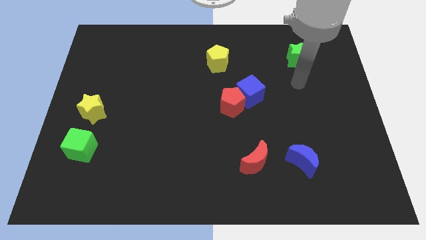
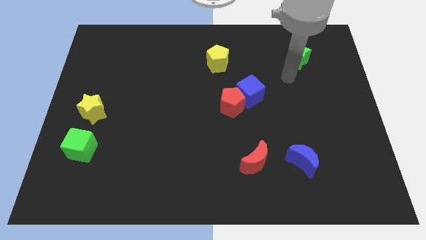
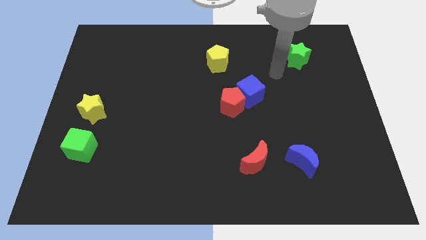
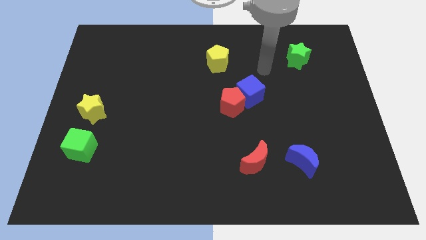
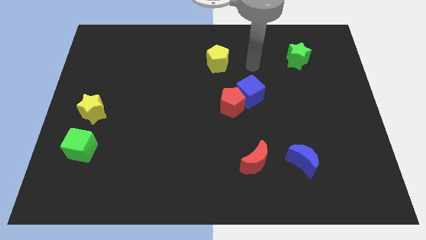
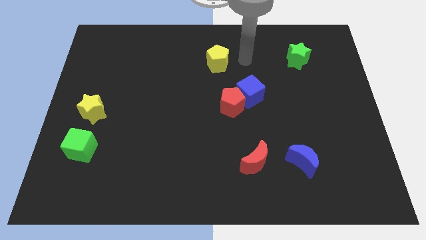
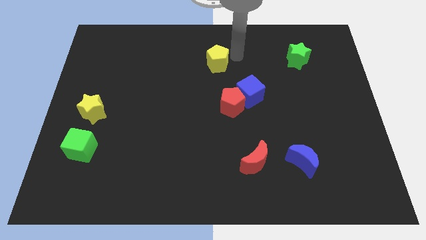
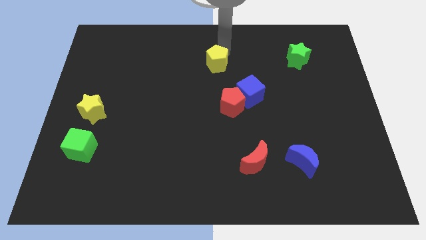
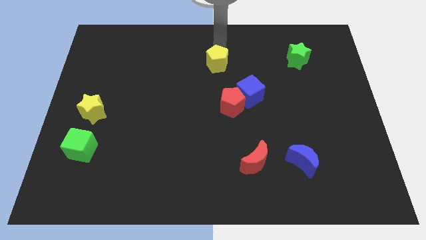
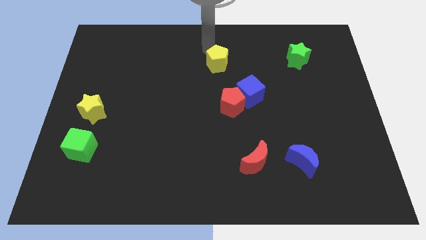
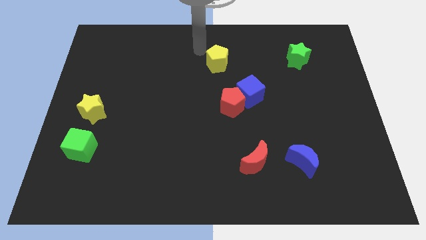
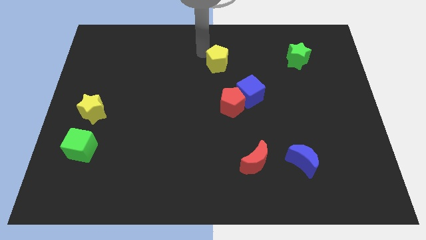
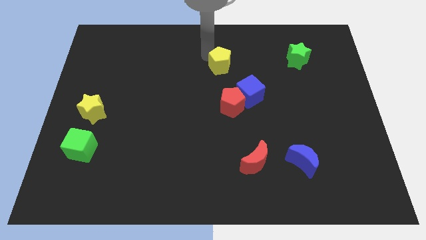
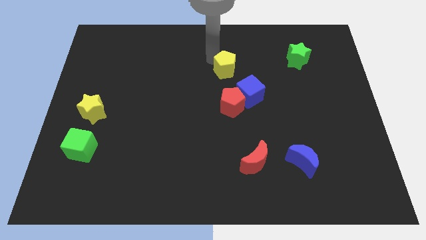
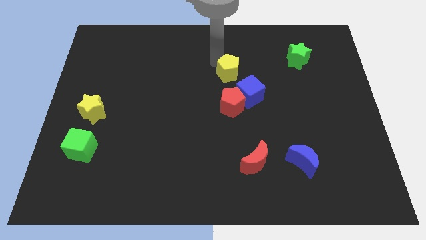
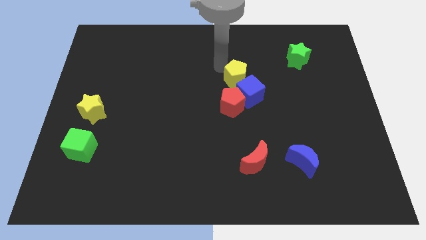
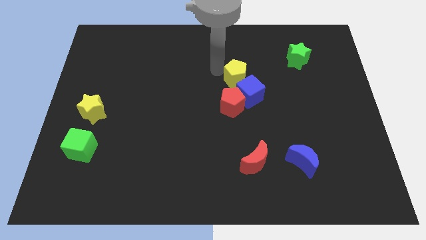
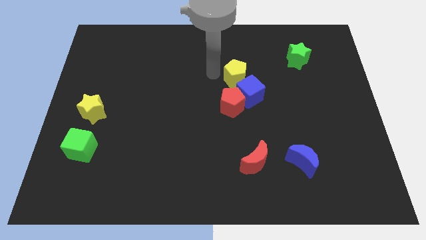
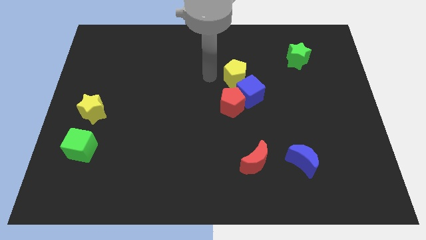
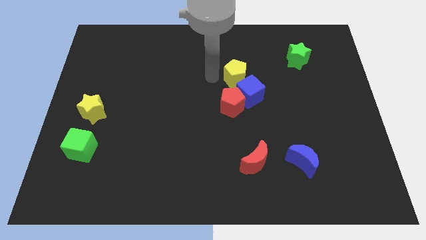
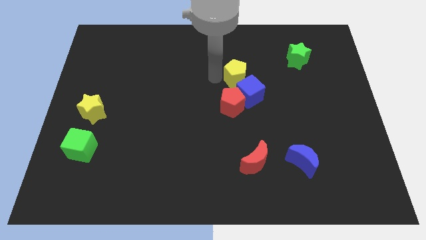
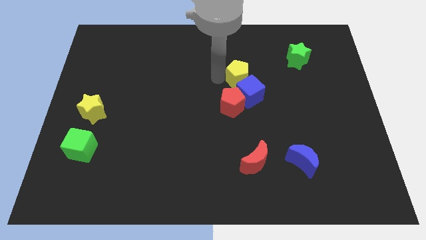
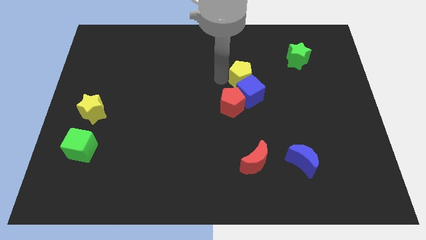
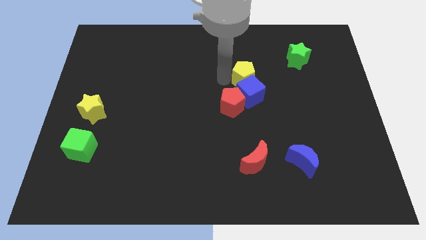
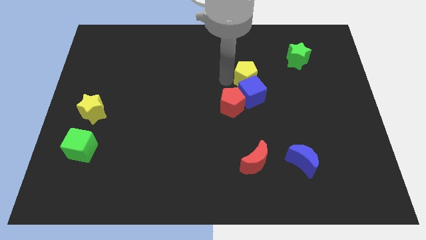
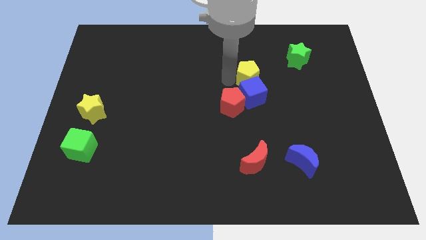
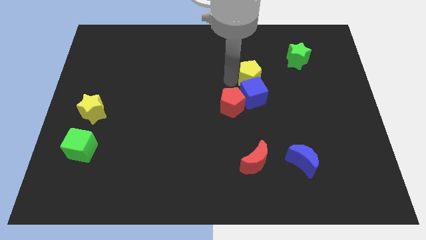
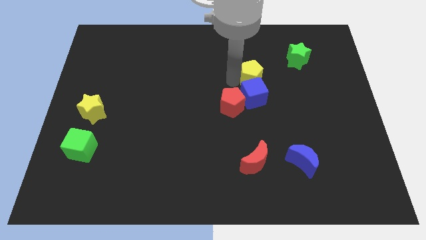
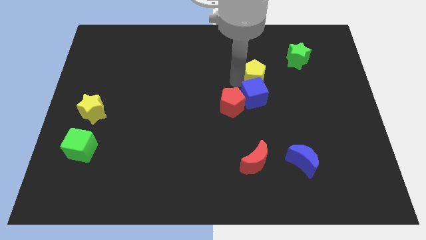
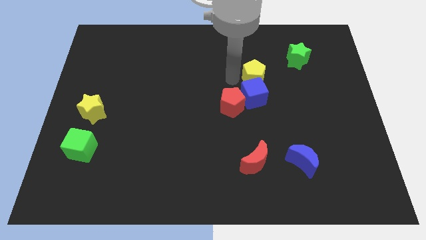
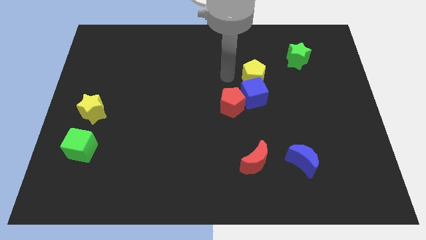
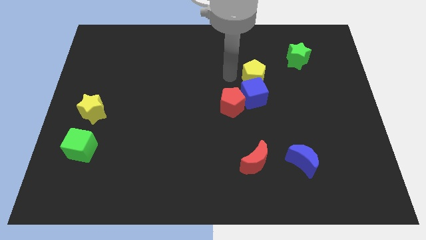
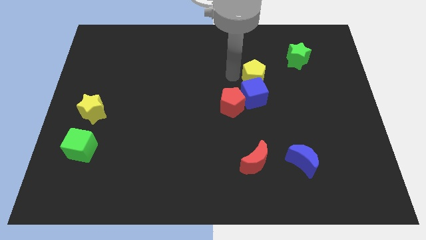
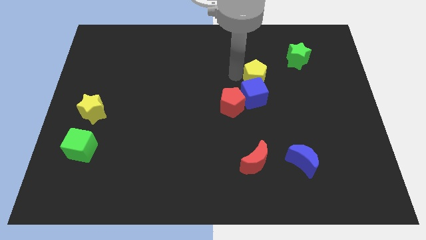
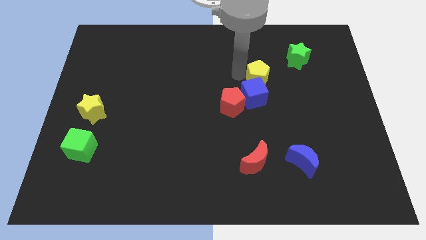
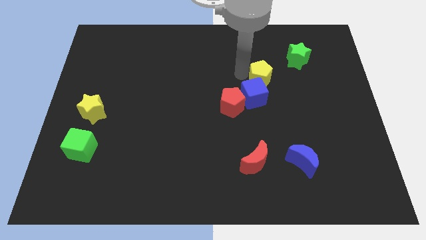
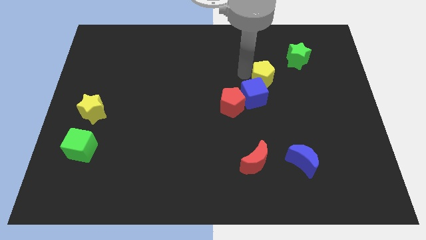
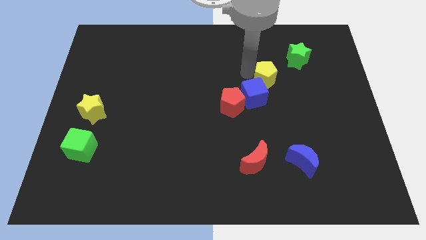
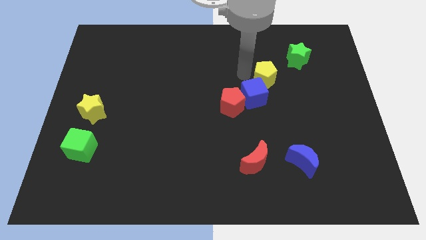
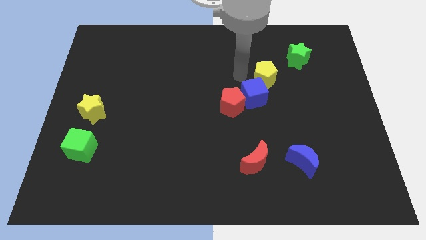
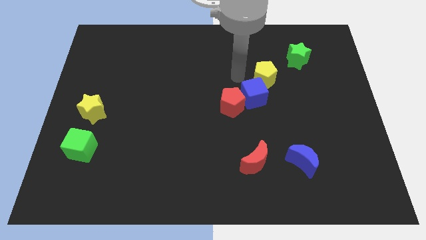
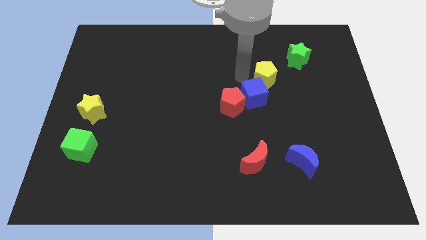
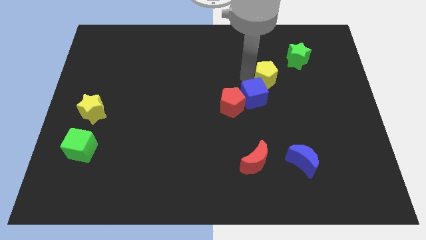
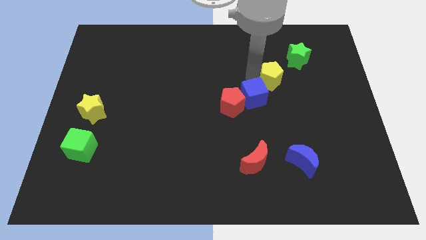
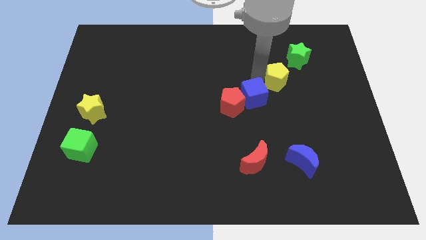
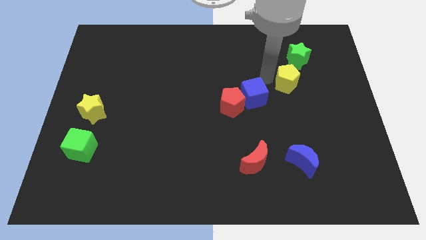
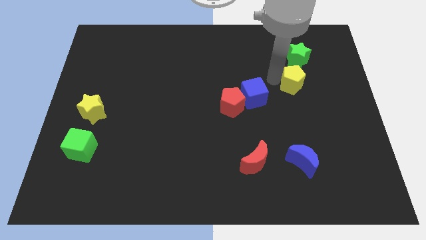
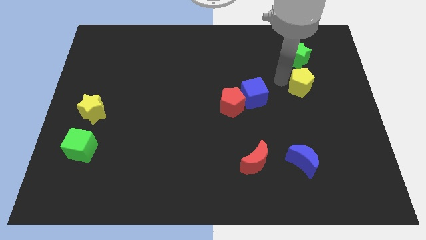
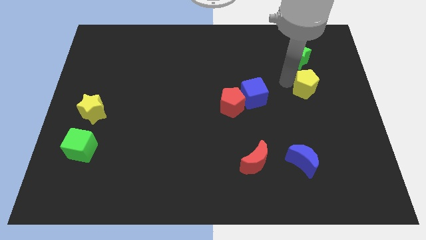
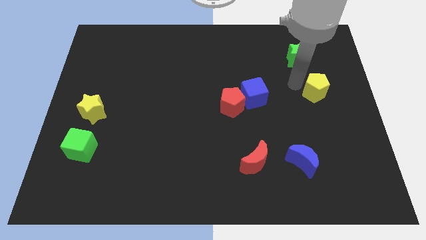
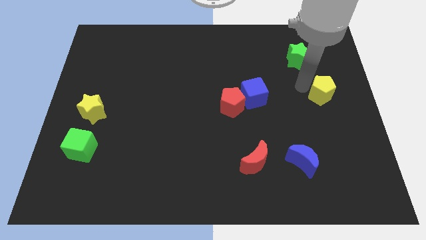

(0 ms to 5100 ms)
move the yellow pentagon to the right side
